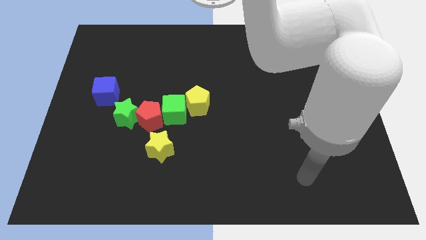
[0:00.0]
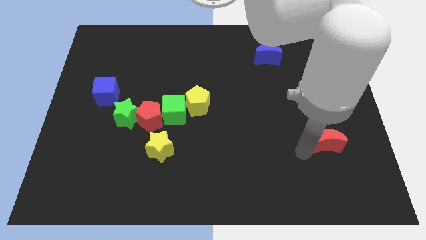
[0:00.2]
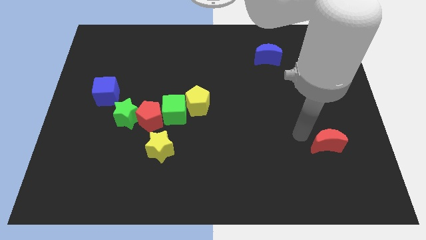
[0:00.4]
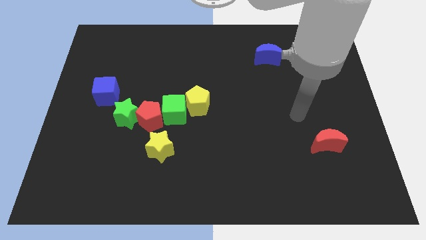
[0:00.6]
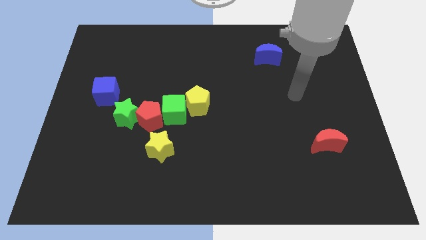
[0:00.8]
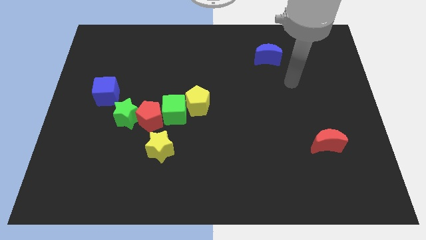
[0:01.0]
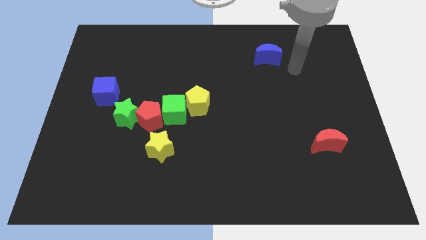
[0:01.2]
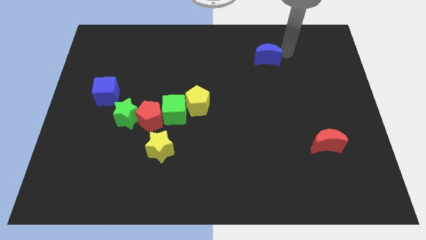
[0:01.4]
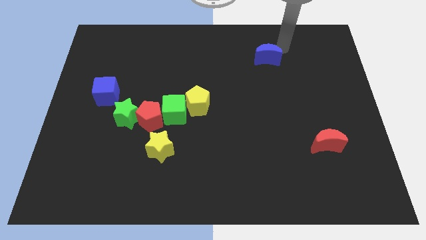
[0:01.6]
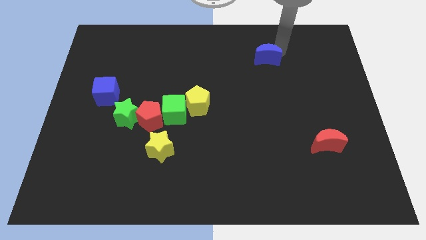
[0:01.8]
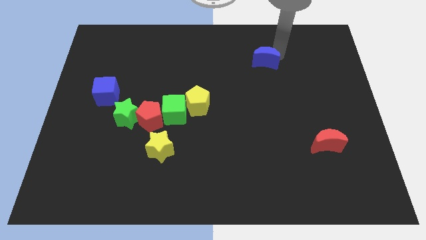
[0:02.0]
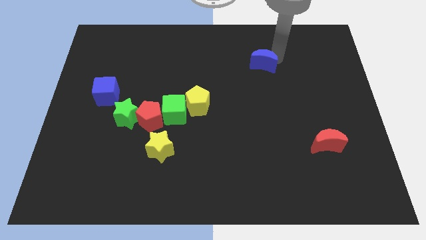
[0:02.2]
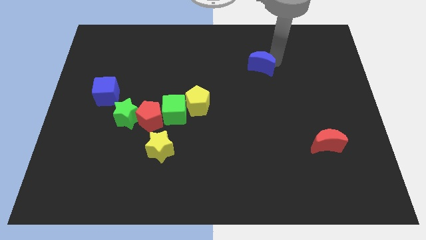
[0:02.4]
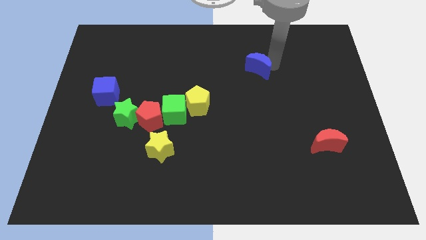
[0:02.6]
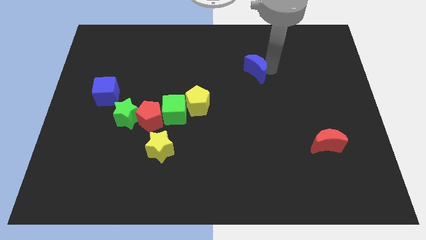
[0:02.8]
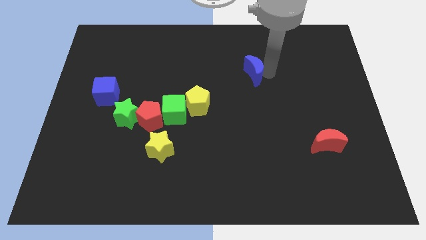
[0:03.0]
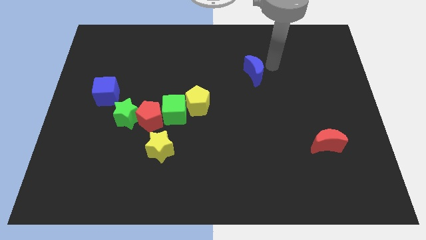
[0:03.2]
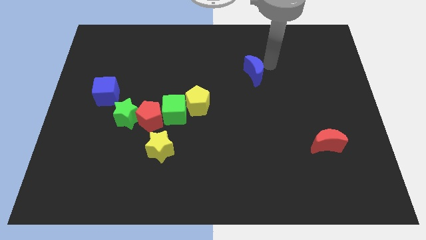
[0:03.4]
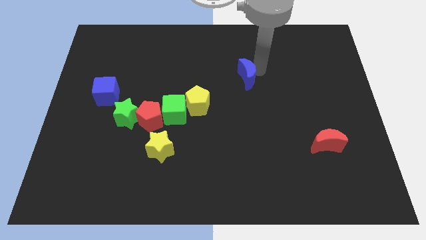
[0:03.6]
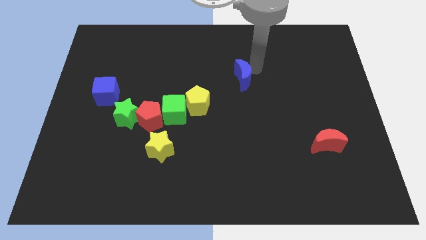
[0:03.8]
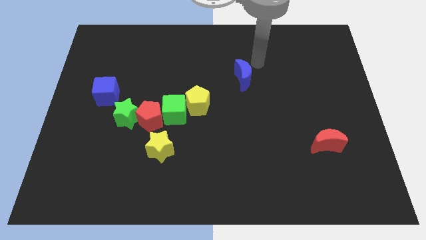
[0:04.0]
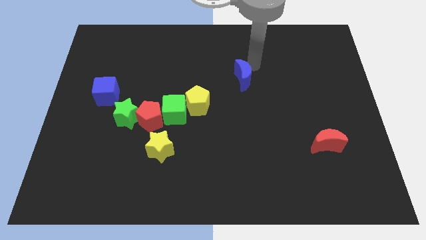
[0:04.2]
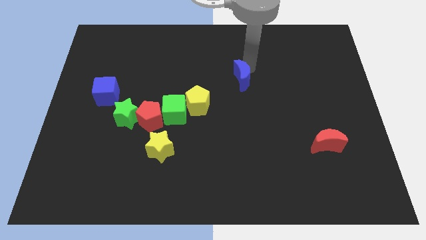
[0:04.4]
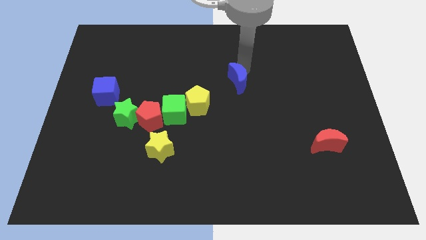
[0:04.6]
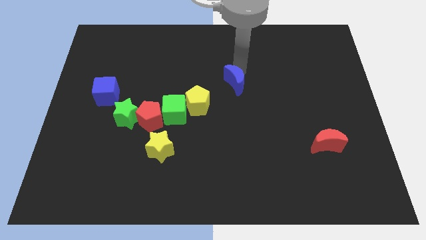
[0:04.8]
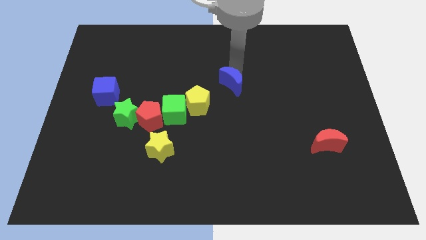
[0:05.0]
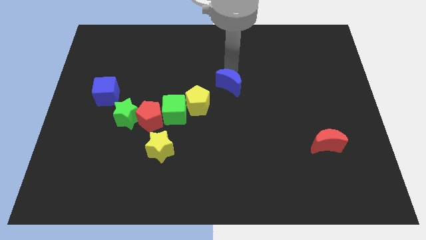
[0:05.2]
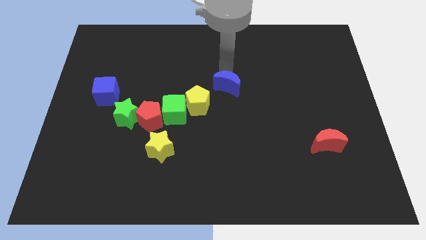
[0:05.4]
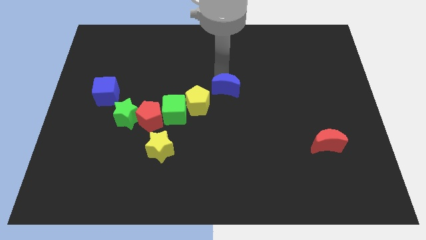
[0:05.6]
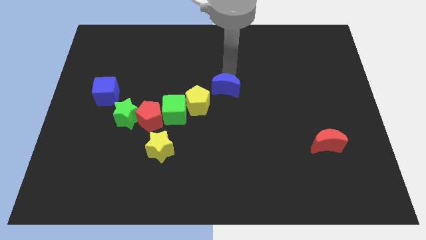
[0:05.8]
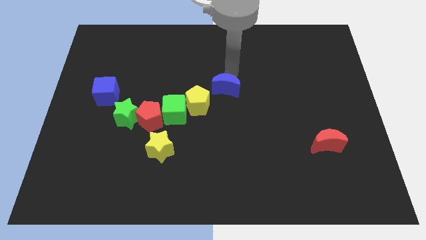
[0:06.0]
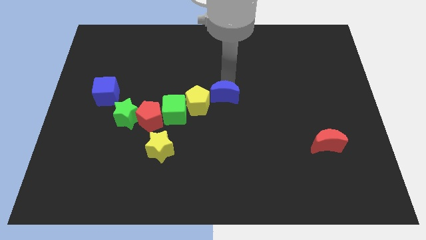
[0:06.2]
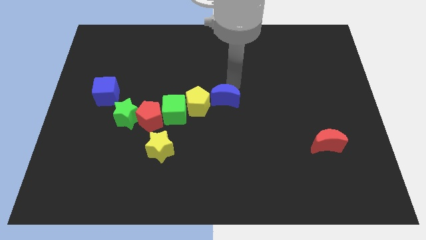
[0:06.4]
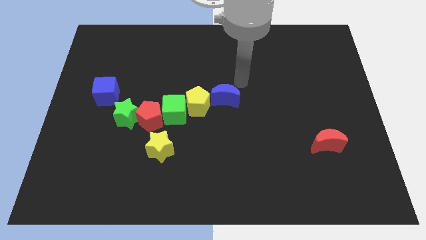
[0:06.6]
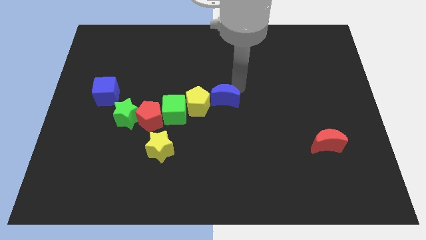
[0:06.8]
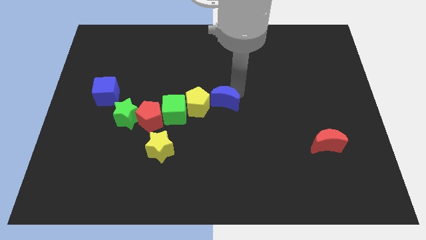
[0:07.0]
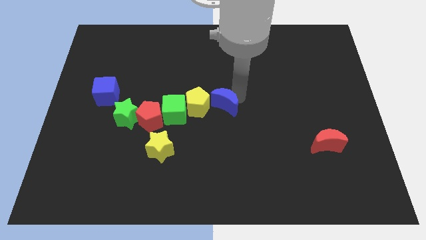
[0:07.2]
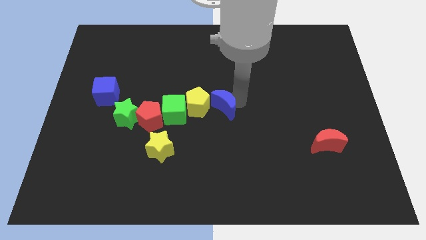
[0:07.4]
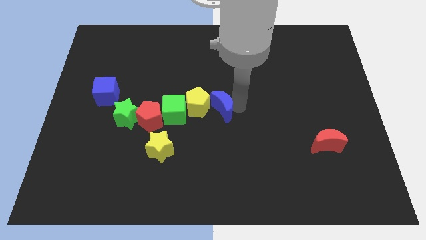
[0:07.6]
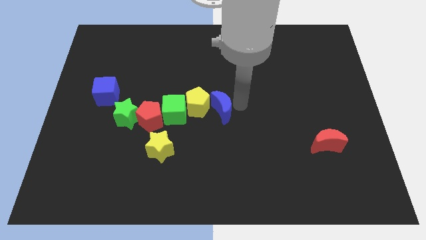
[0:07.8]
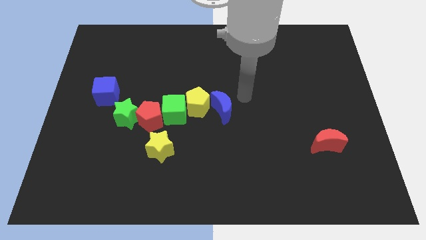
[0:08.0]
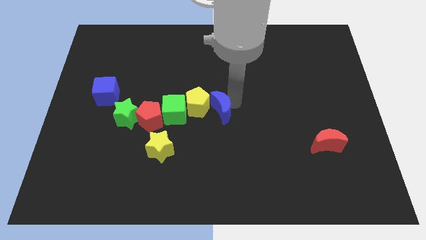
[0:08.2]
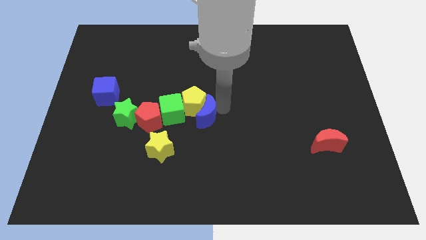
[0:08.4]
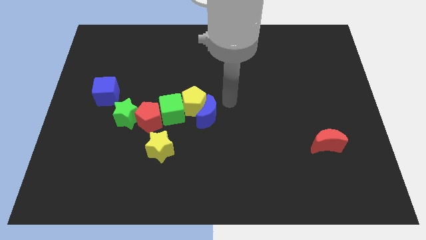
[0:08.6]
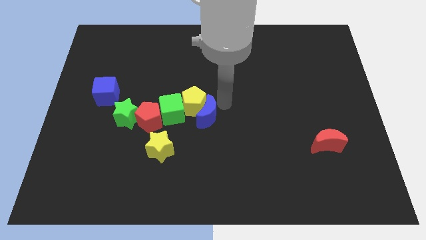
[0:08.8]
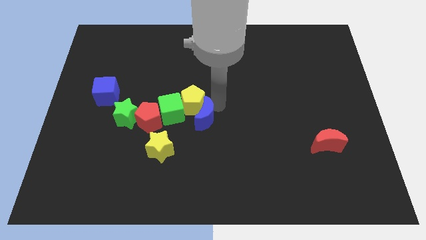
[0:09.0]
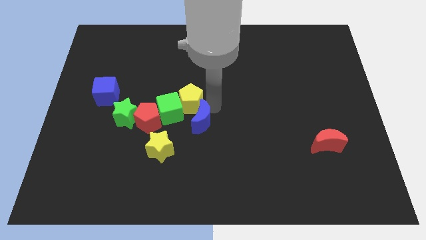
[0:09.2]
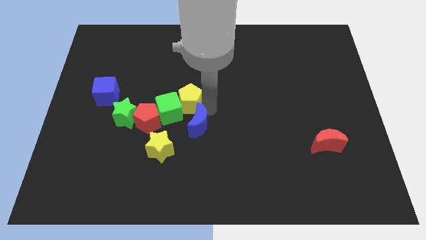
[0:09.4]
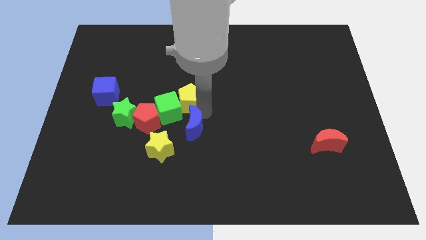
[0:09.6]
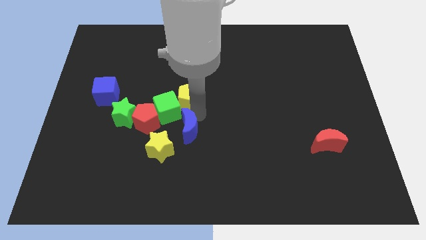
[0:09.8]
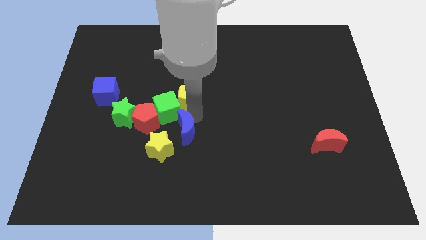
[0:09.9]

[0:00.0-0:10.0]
slide the blue moon to the bottom right of the red pentagon

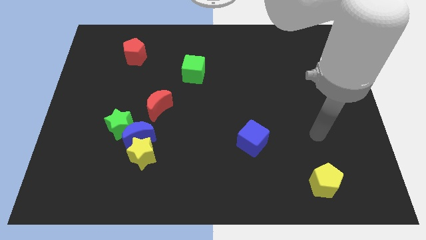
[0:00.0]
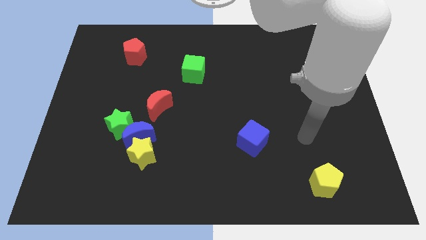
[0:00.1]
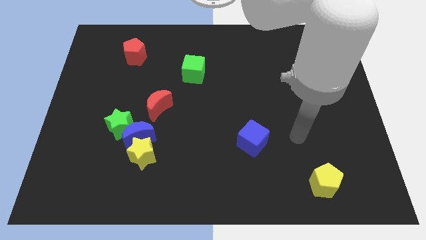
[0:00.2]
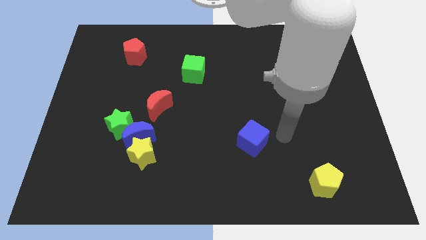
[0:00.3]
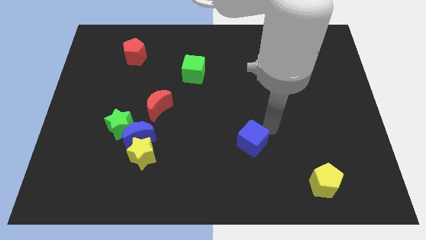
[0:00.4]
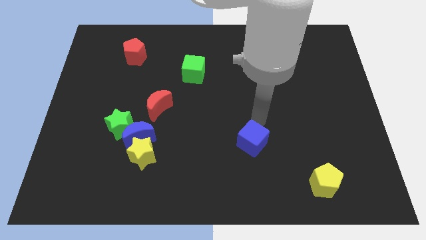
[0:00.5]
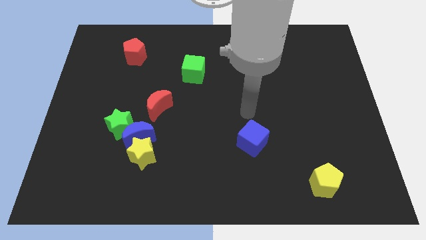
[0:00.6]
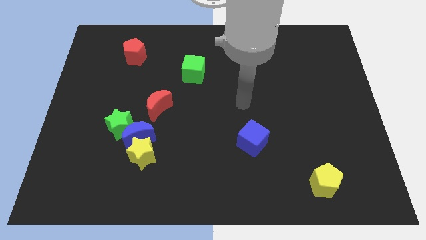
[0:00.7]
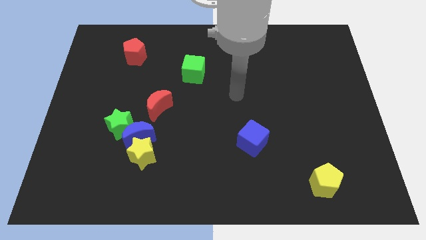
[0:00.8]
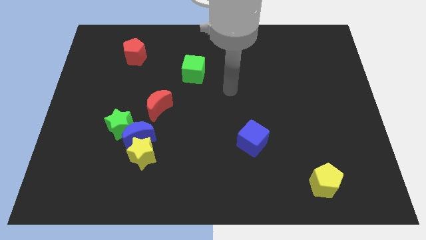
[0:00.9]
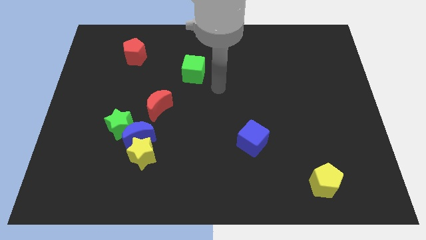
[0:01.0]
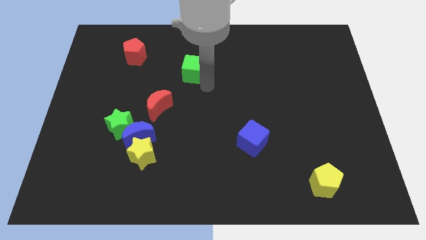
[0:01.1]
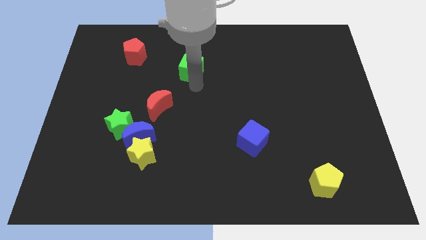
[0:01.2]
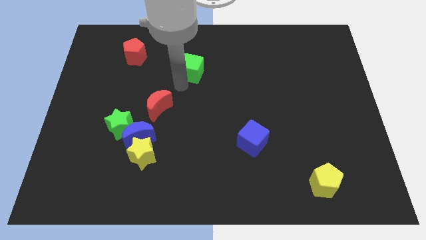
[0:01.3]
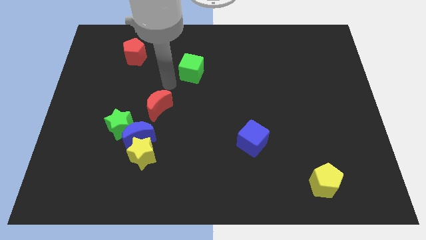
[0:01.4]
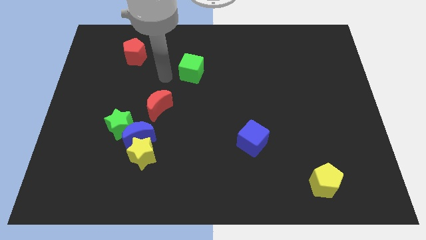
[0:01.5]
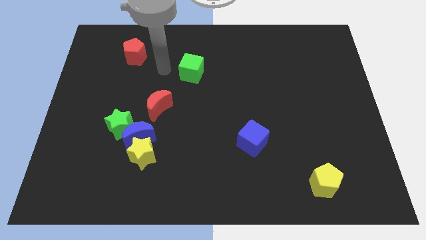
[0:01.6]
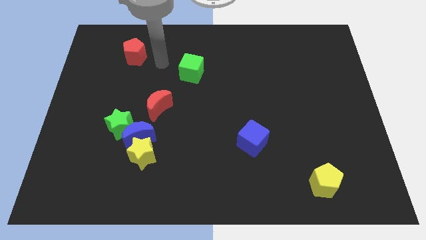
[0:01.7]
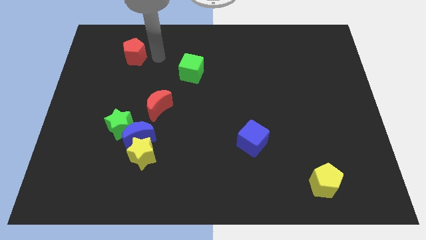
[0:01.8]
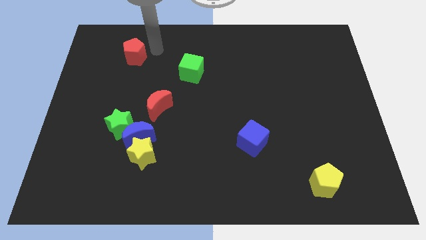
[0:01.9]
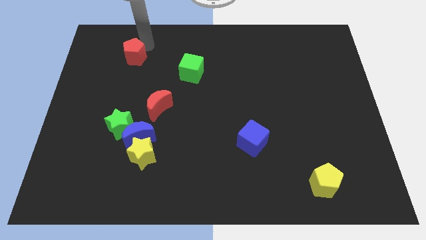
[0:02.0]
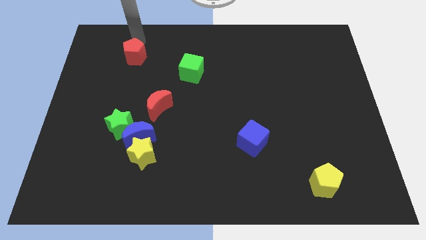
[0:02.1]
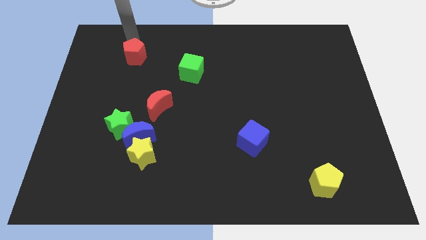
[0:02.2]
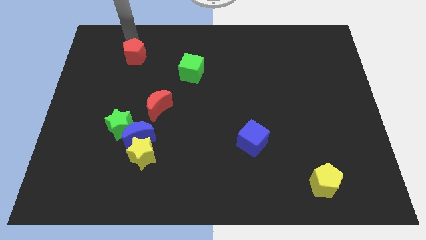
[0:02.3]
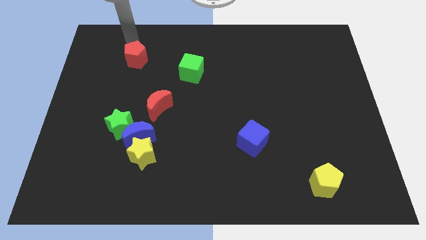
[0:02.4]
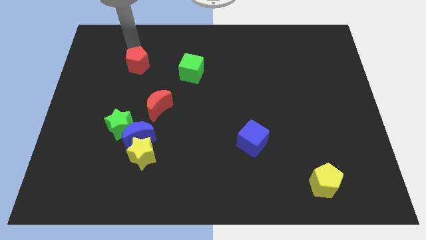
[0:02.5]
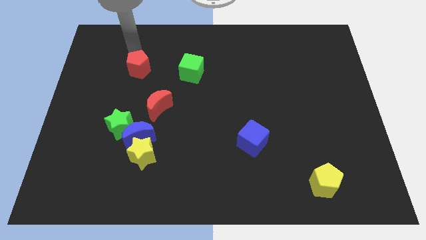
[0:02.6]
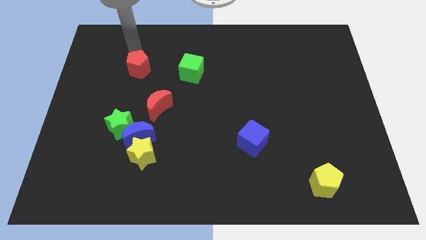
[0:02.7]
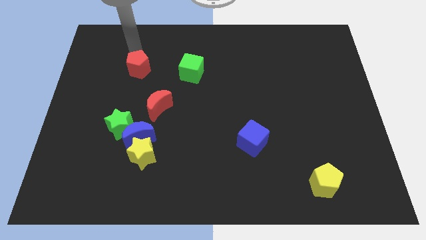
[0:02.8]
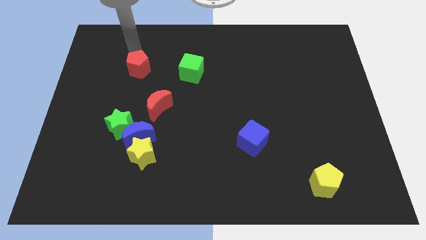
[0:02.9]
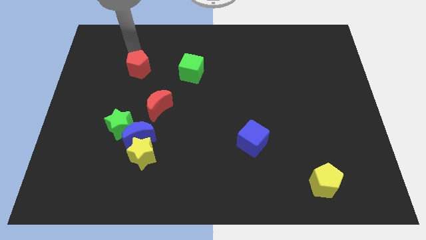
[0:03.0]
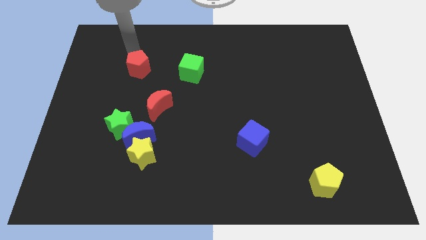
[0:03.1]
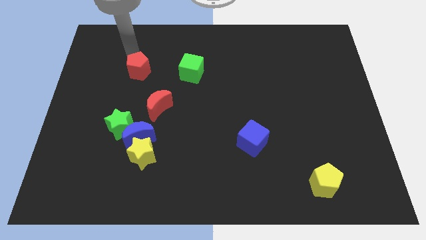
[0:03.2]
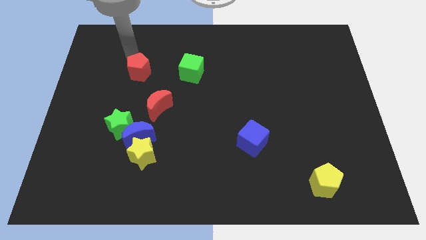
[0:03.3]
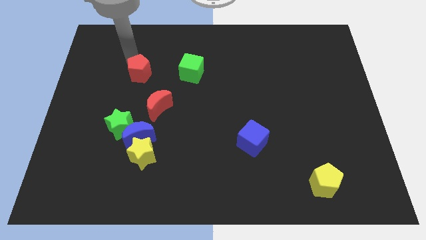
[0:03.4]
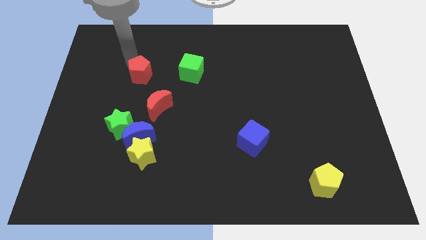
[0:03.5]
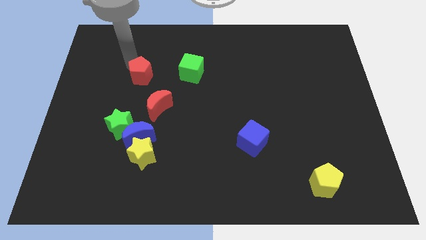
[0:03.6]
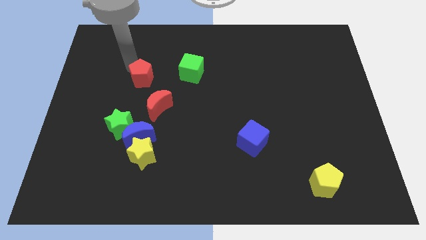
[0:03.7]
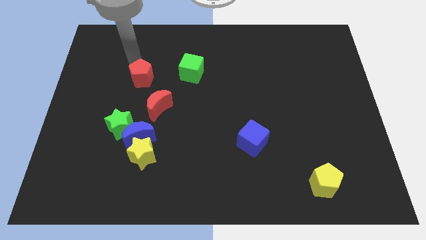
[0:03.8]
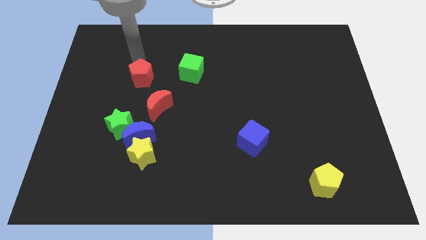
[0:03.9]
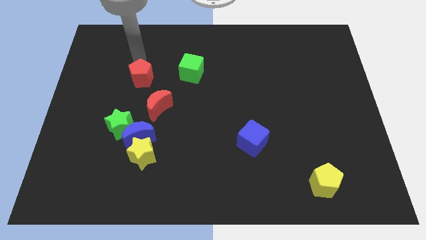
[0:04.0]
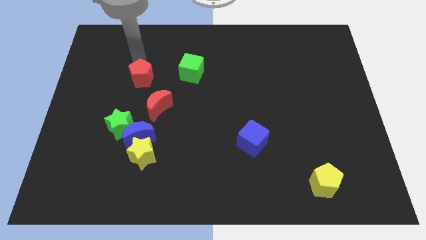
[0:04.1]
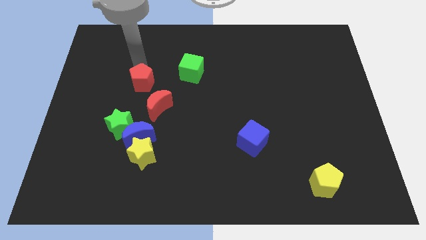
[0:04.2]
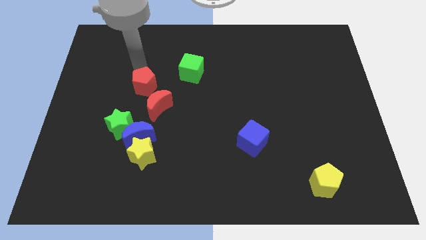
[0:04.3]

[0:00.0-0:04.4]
slide the red pentagon to the top of the blue moon
